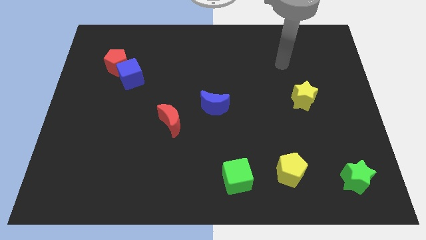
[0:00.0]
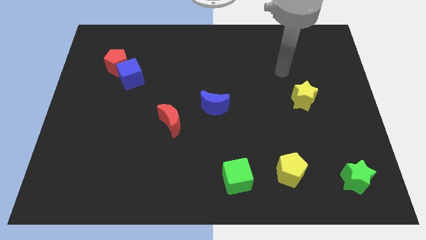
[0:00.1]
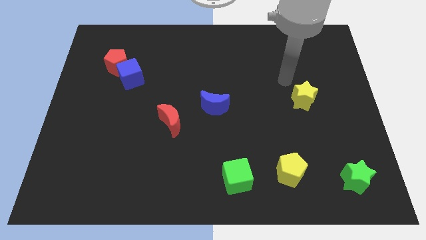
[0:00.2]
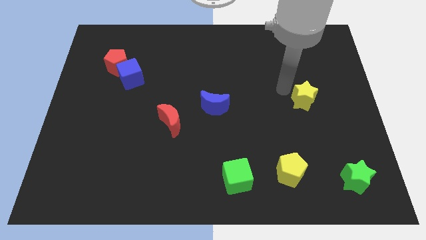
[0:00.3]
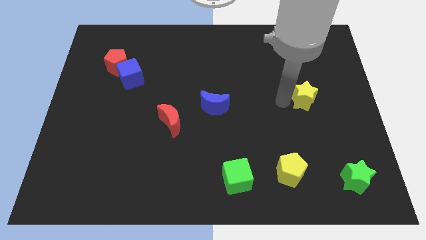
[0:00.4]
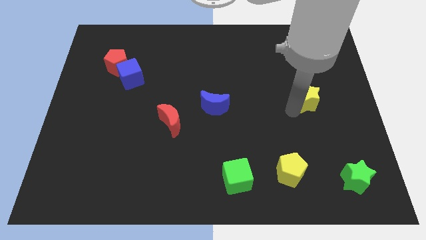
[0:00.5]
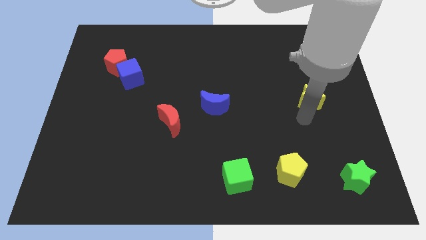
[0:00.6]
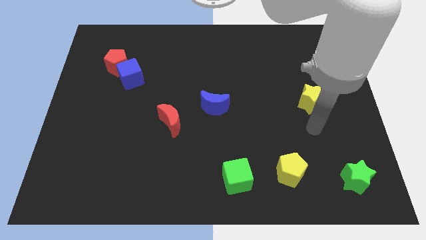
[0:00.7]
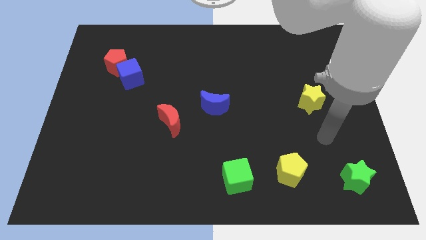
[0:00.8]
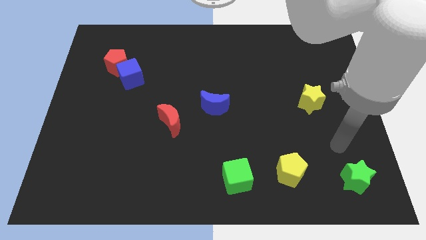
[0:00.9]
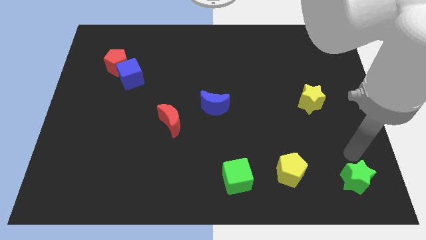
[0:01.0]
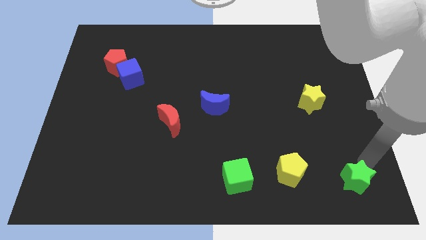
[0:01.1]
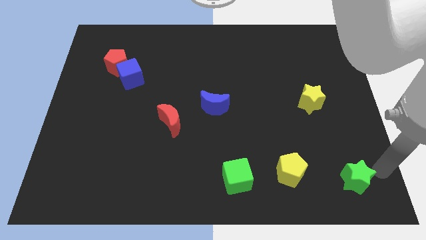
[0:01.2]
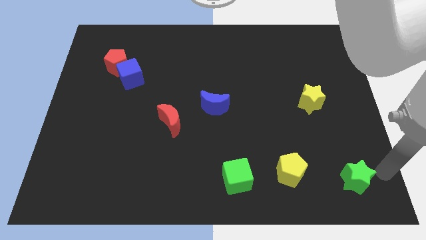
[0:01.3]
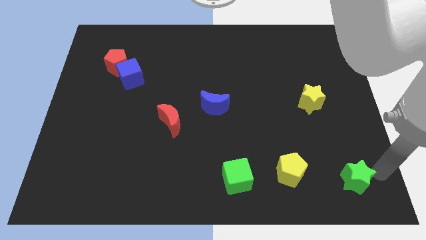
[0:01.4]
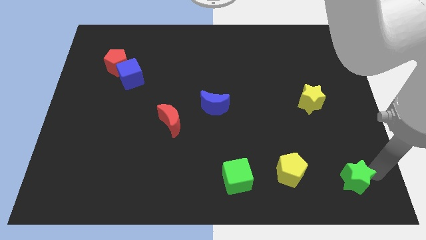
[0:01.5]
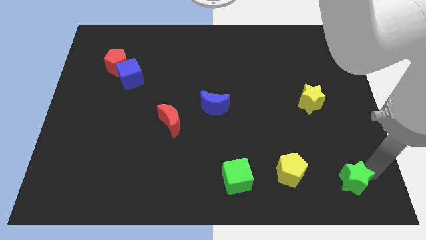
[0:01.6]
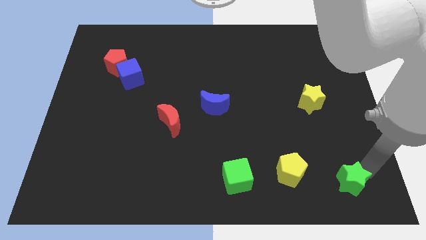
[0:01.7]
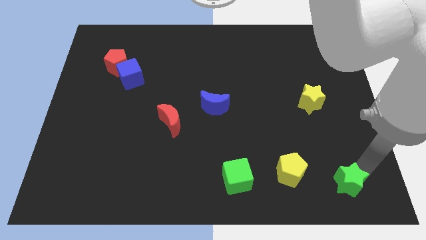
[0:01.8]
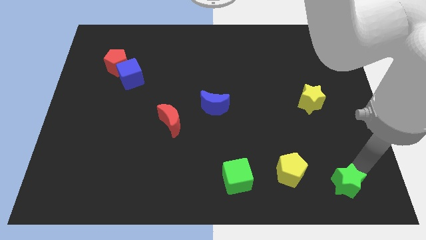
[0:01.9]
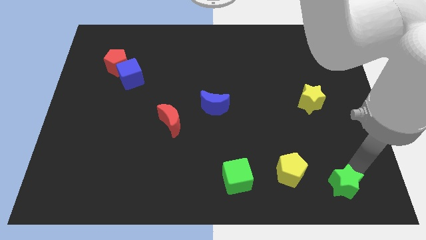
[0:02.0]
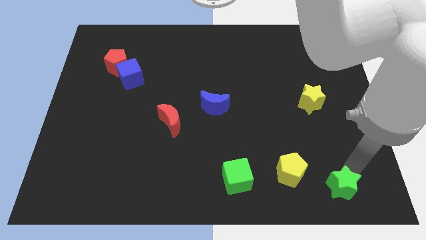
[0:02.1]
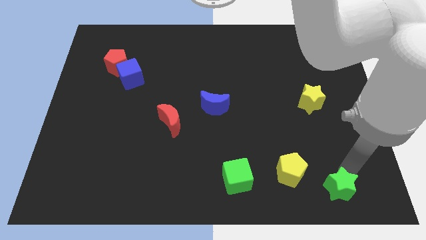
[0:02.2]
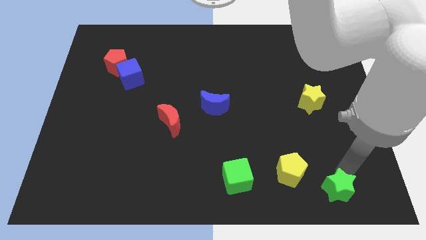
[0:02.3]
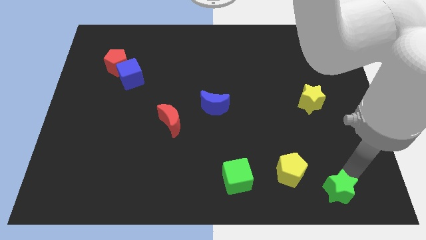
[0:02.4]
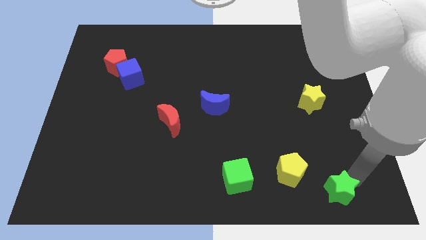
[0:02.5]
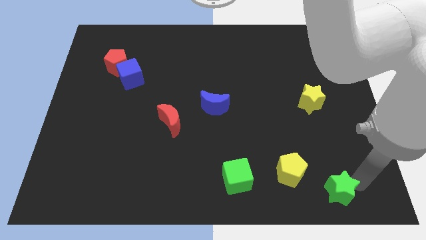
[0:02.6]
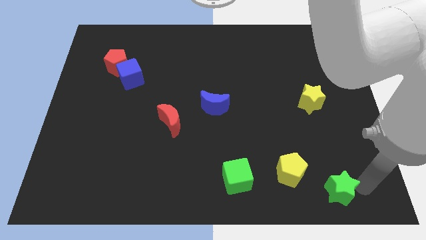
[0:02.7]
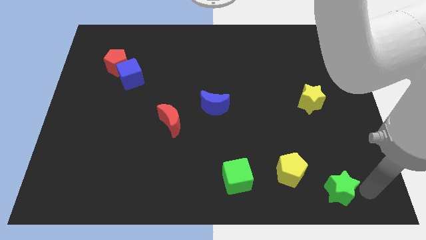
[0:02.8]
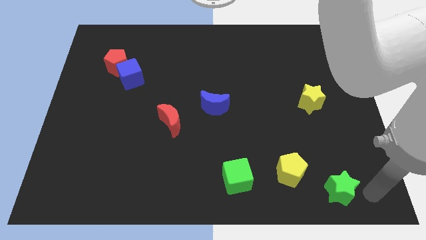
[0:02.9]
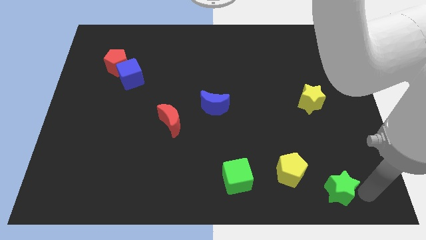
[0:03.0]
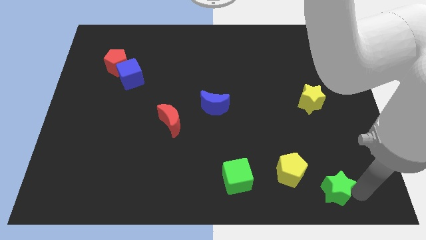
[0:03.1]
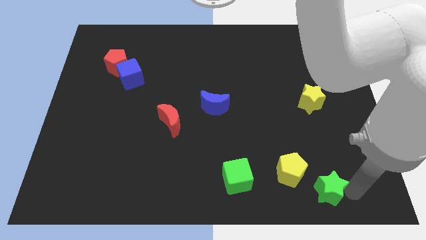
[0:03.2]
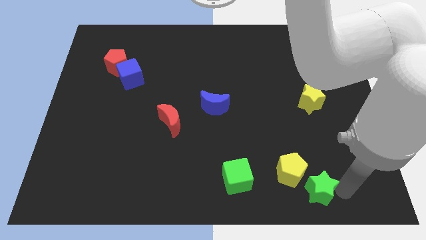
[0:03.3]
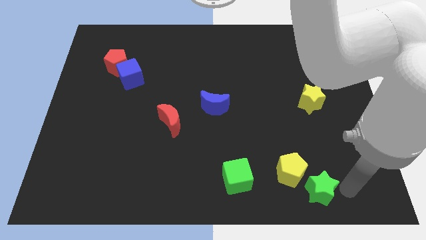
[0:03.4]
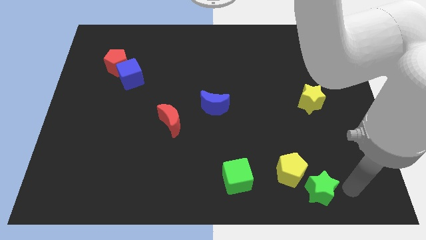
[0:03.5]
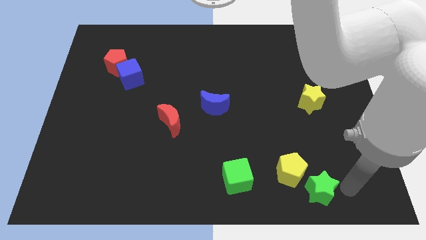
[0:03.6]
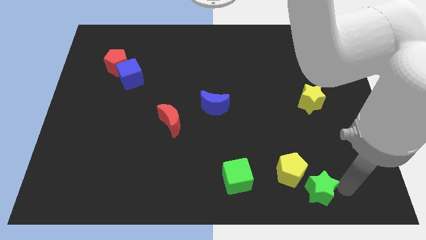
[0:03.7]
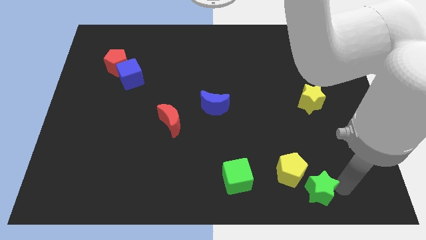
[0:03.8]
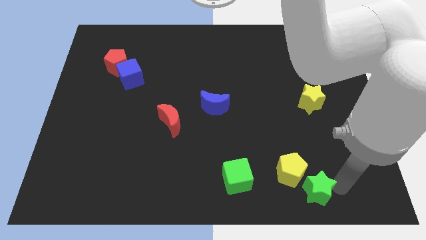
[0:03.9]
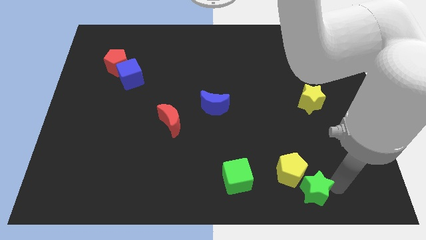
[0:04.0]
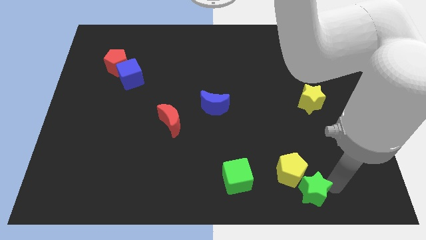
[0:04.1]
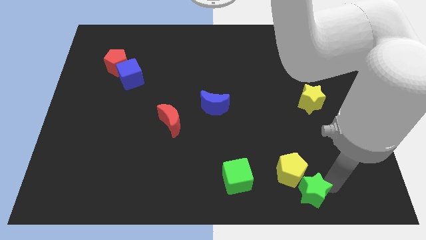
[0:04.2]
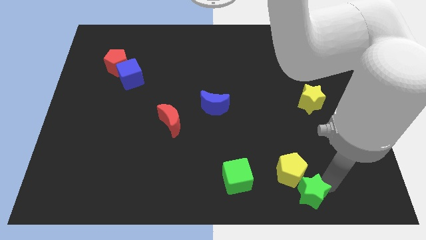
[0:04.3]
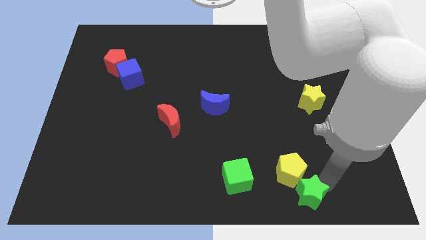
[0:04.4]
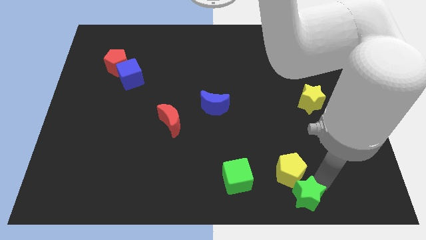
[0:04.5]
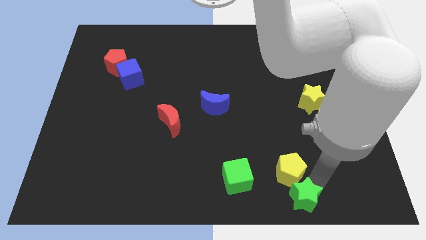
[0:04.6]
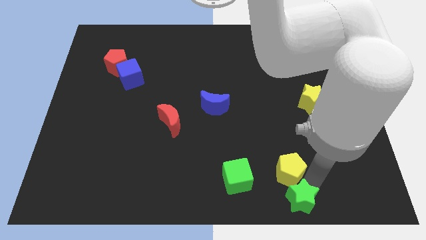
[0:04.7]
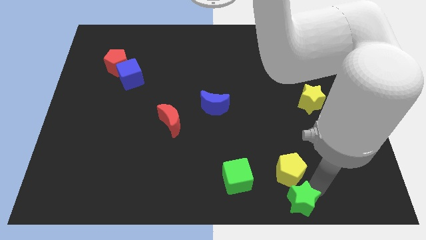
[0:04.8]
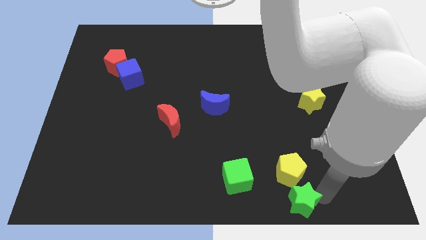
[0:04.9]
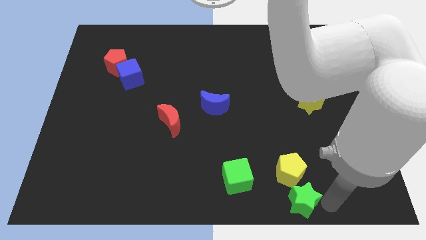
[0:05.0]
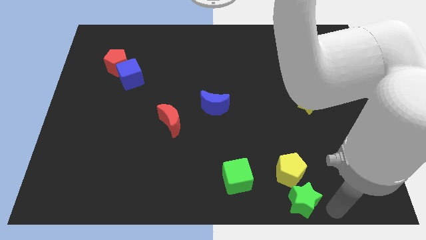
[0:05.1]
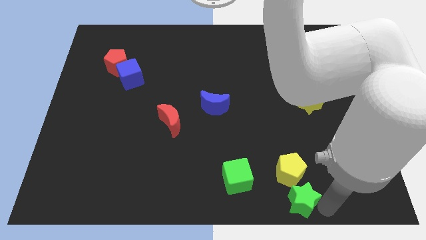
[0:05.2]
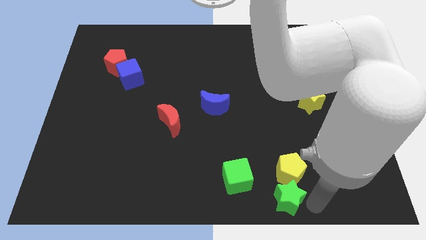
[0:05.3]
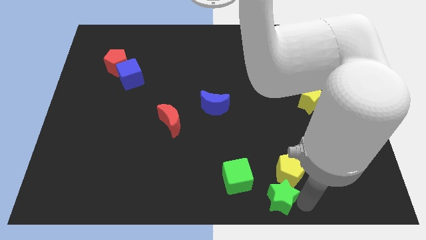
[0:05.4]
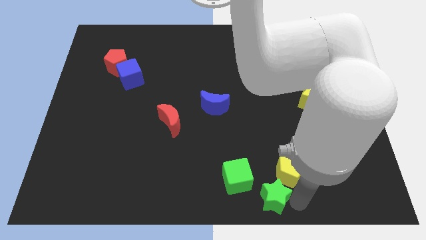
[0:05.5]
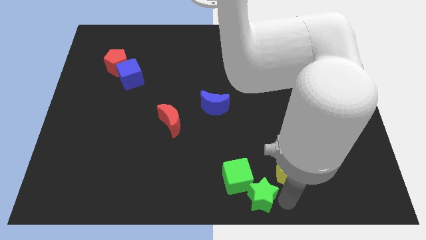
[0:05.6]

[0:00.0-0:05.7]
push the green star close to the green cube

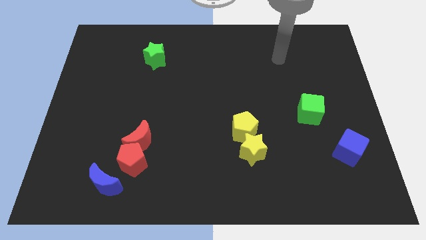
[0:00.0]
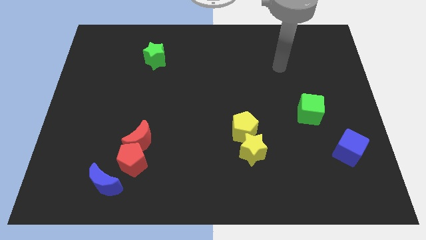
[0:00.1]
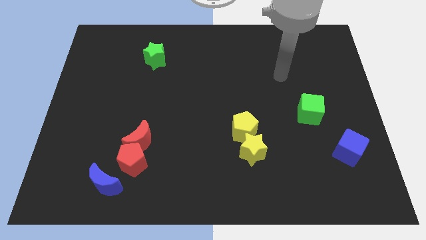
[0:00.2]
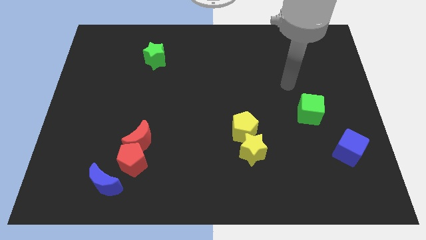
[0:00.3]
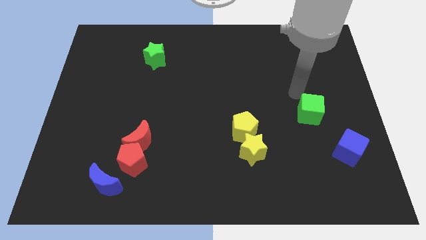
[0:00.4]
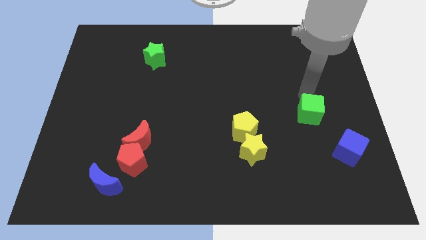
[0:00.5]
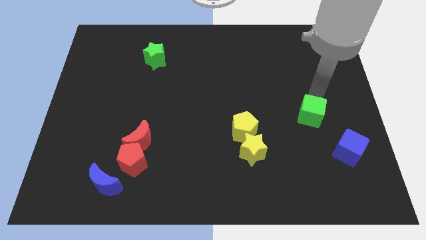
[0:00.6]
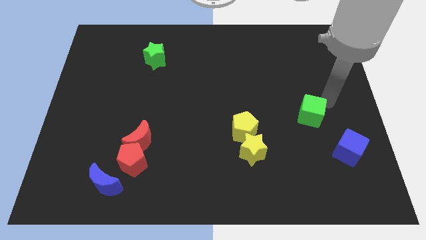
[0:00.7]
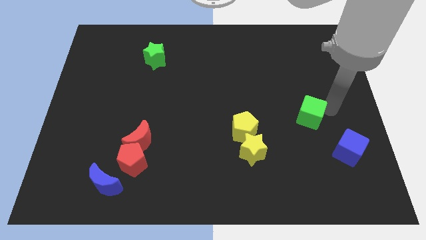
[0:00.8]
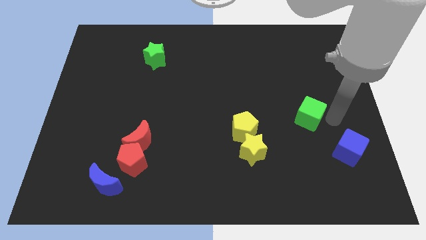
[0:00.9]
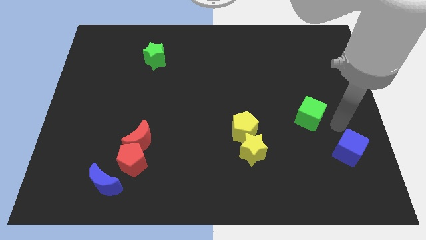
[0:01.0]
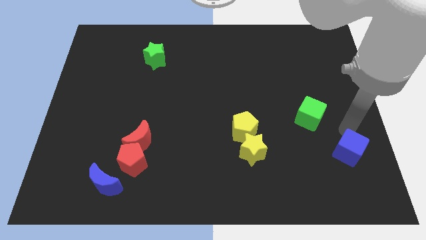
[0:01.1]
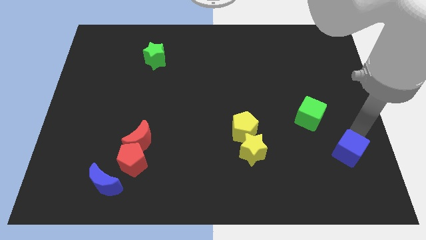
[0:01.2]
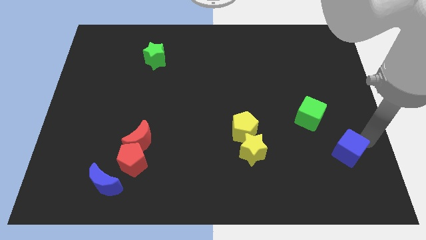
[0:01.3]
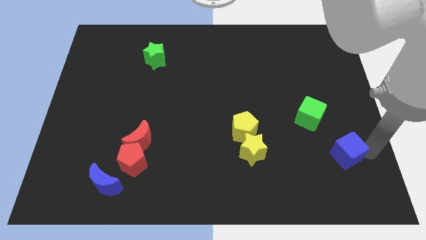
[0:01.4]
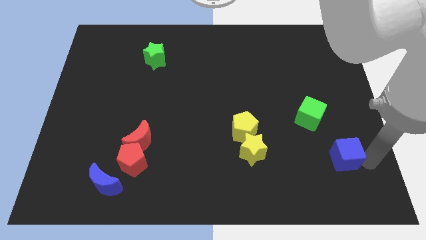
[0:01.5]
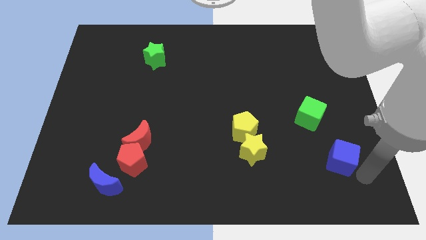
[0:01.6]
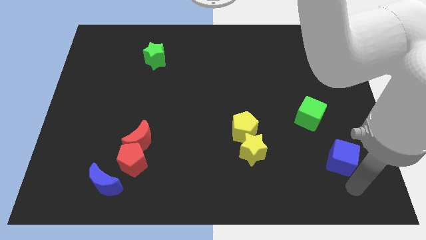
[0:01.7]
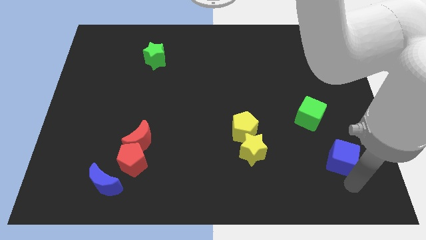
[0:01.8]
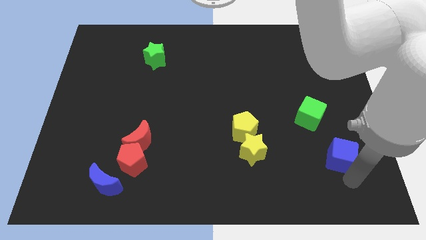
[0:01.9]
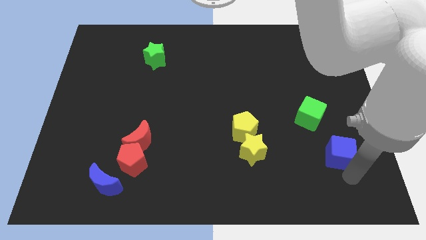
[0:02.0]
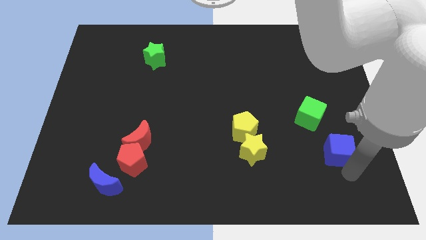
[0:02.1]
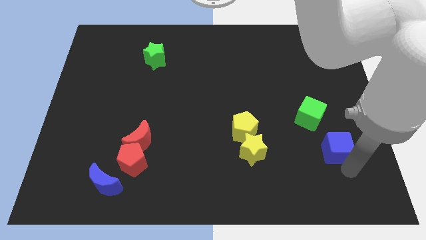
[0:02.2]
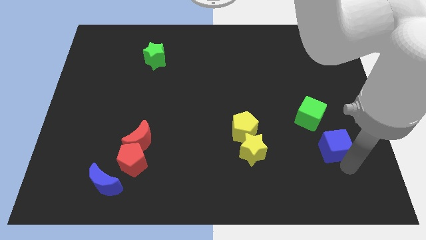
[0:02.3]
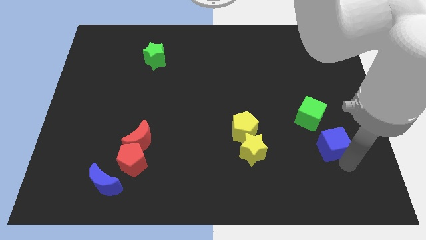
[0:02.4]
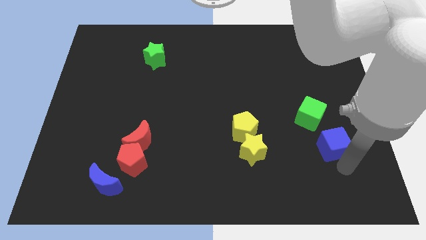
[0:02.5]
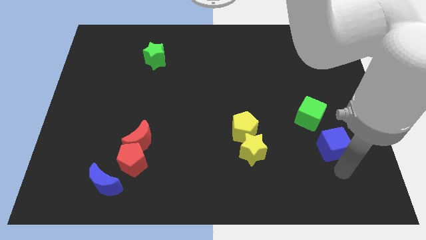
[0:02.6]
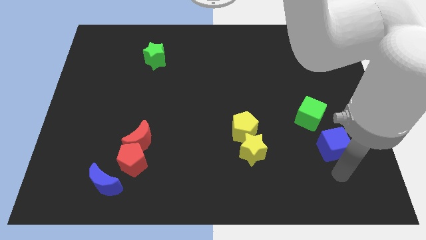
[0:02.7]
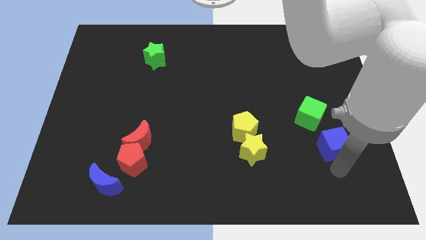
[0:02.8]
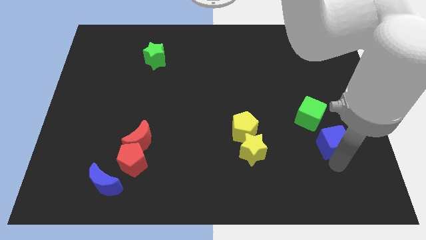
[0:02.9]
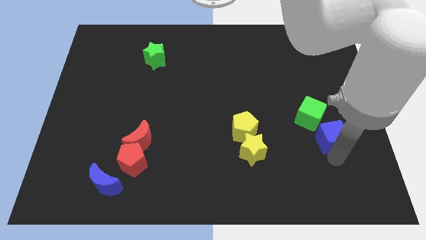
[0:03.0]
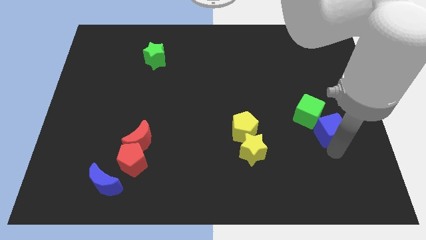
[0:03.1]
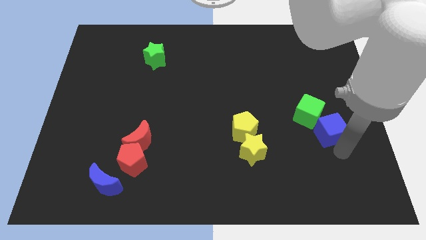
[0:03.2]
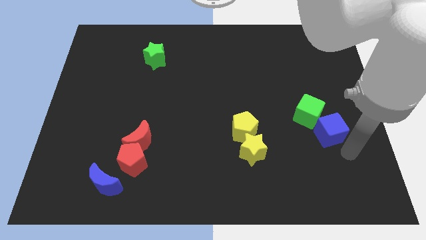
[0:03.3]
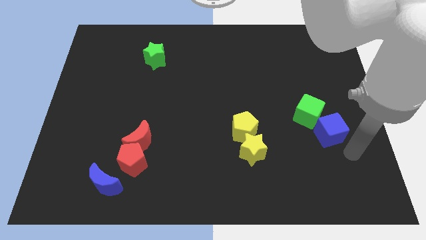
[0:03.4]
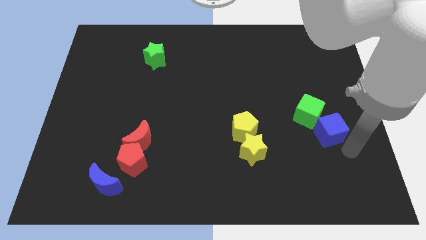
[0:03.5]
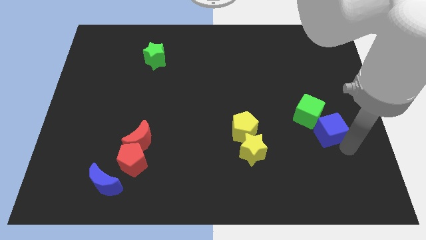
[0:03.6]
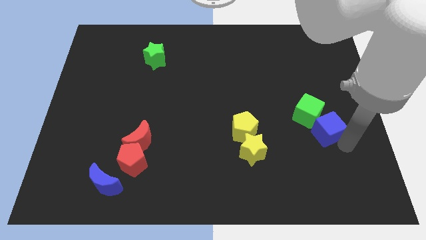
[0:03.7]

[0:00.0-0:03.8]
slide the blue cube to the green cube
